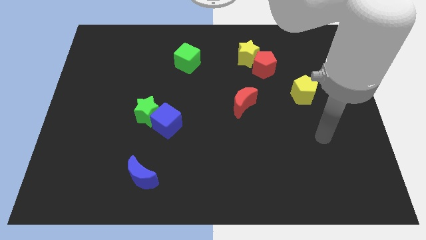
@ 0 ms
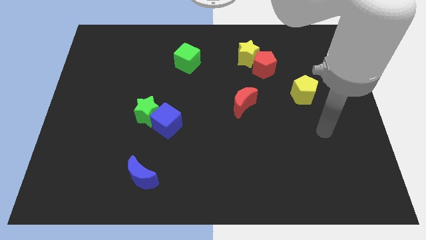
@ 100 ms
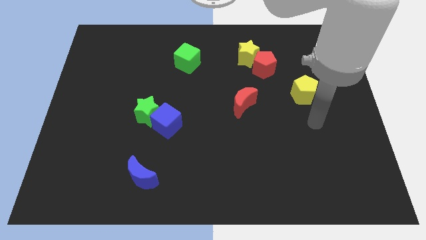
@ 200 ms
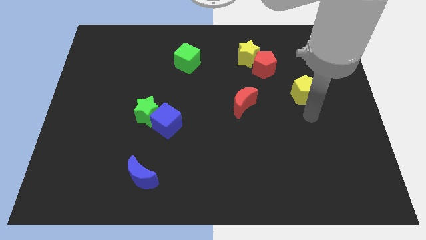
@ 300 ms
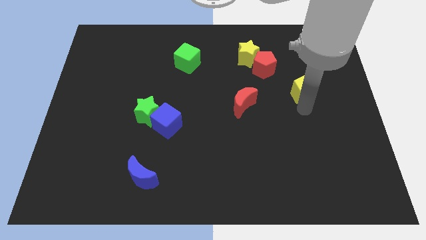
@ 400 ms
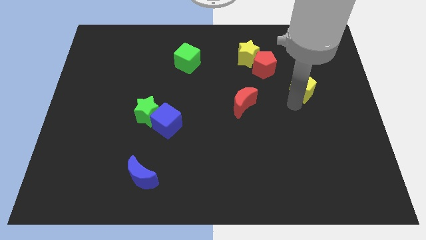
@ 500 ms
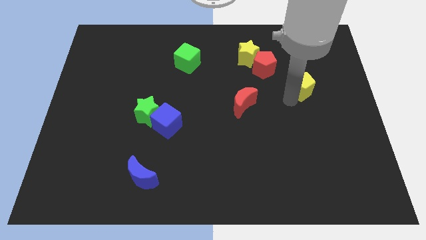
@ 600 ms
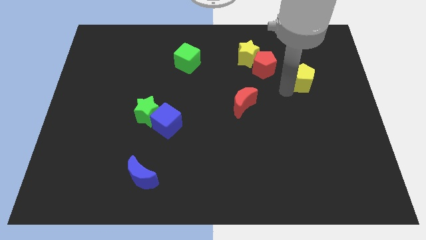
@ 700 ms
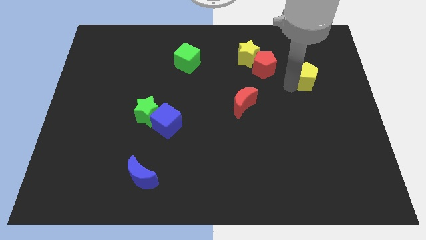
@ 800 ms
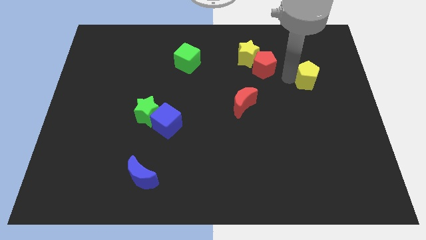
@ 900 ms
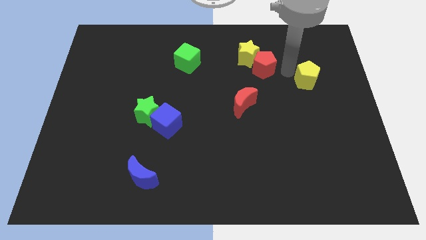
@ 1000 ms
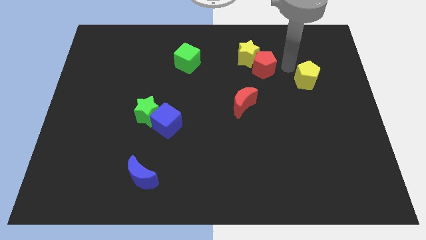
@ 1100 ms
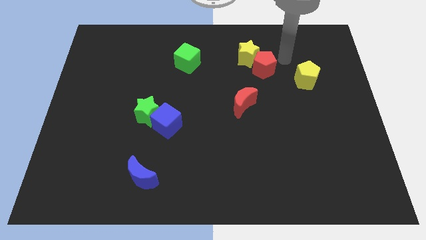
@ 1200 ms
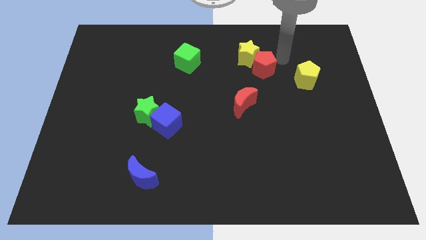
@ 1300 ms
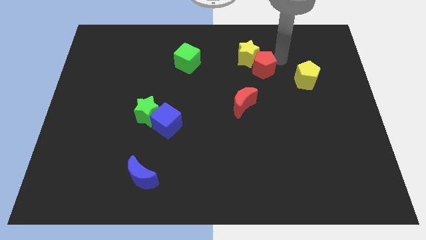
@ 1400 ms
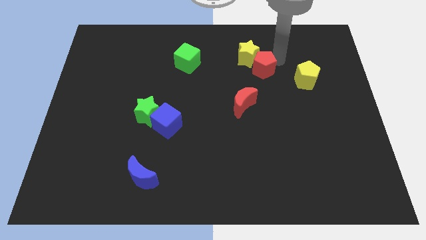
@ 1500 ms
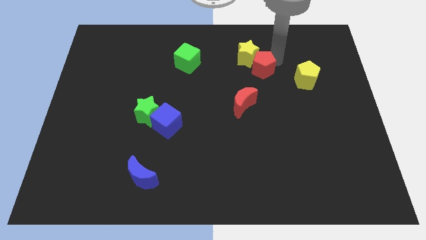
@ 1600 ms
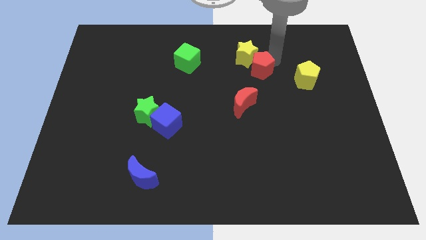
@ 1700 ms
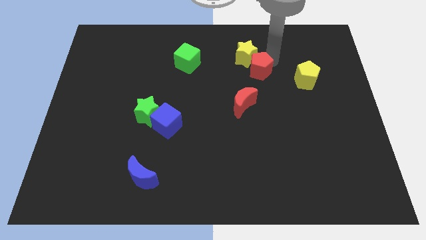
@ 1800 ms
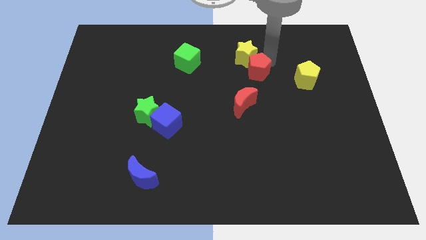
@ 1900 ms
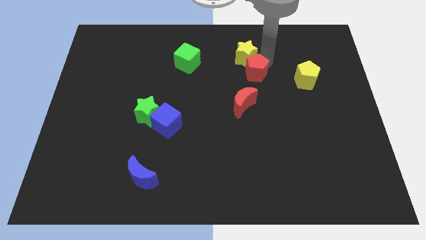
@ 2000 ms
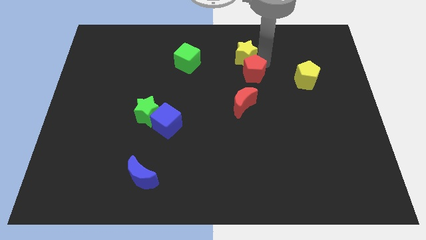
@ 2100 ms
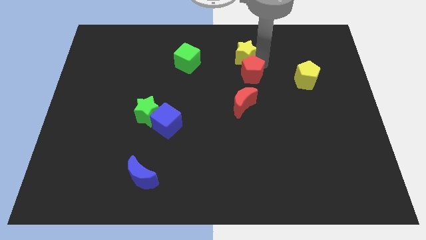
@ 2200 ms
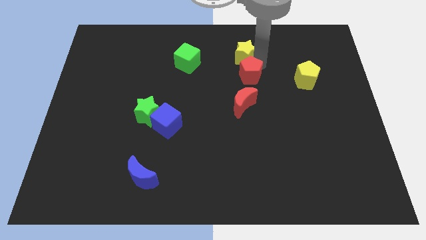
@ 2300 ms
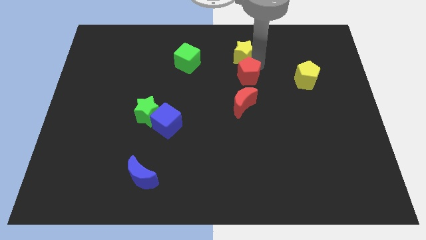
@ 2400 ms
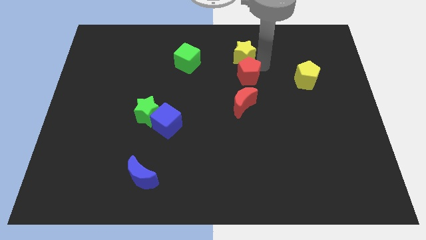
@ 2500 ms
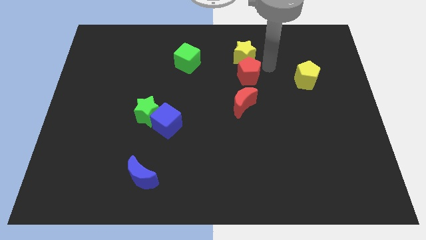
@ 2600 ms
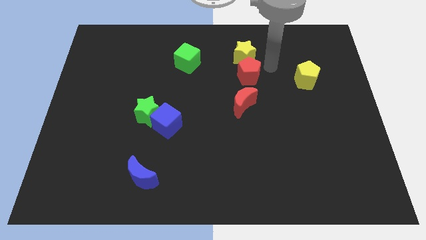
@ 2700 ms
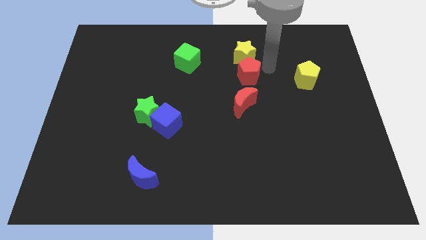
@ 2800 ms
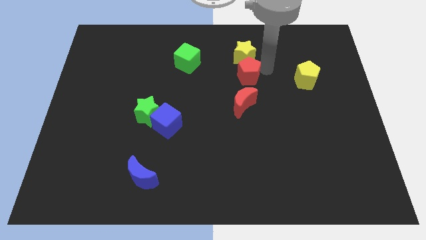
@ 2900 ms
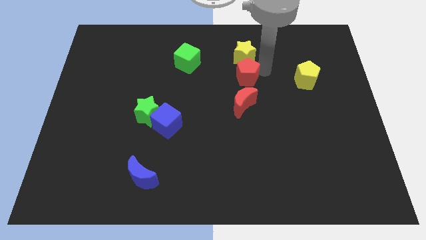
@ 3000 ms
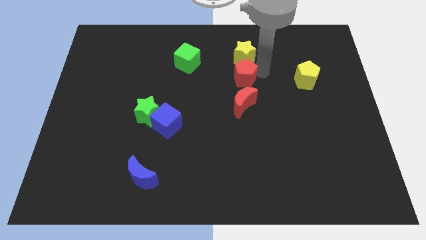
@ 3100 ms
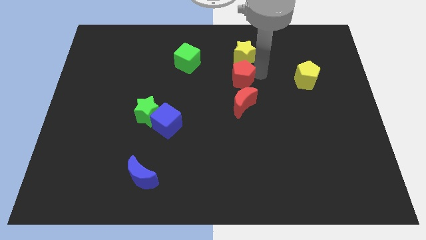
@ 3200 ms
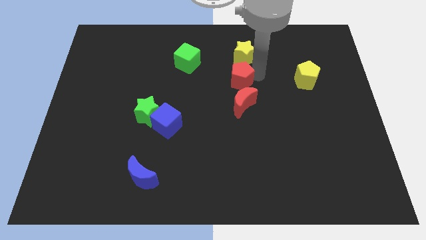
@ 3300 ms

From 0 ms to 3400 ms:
push the red pentagon downwards and to the left a little bit

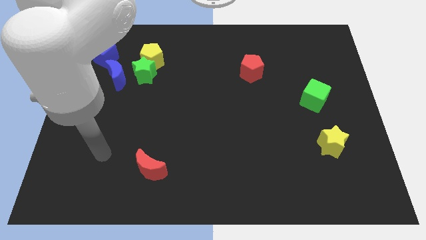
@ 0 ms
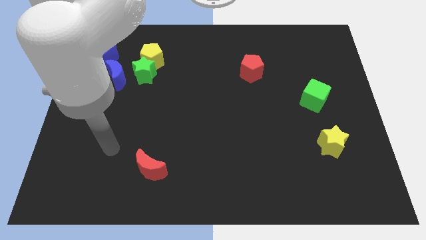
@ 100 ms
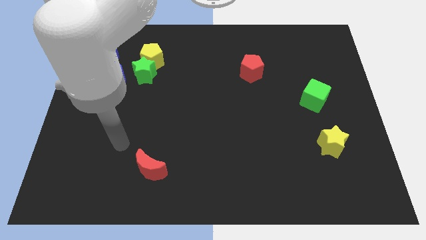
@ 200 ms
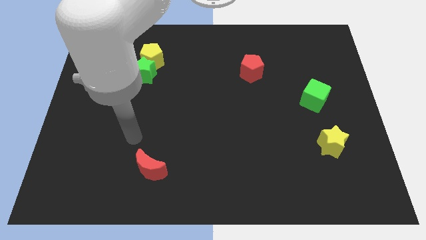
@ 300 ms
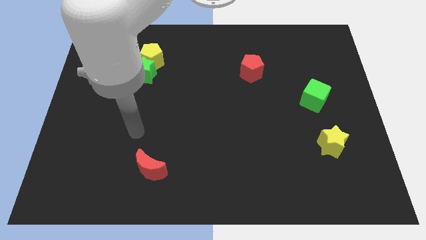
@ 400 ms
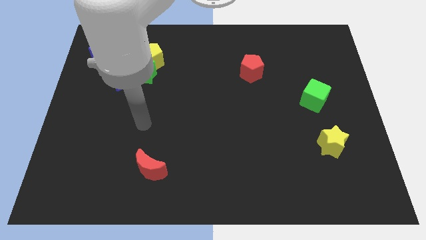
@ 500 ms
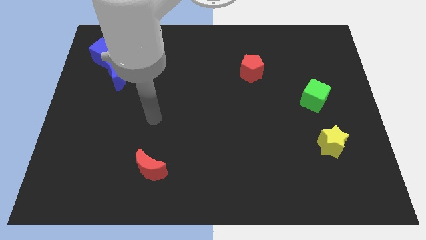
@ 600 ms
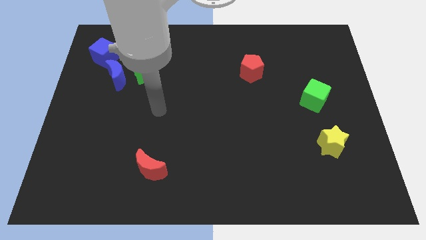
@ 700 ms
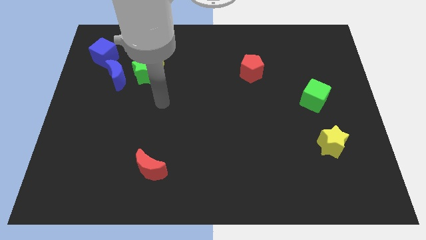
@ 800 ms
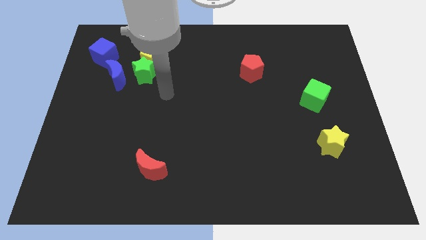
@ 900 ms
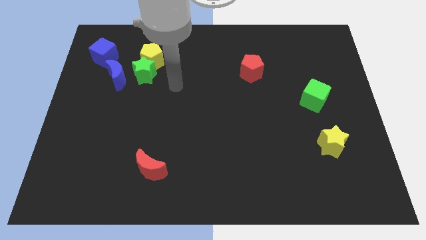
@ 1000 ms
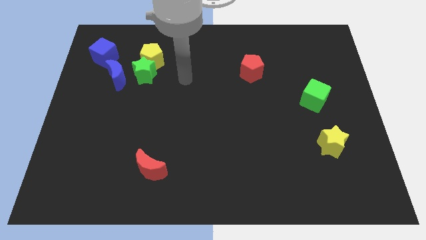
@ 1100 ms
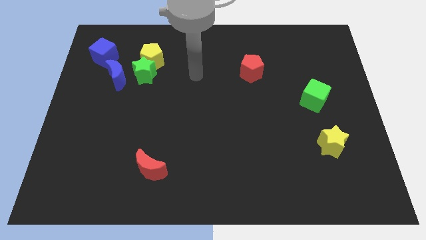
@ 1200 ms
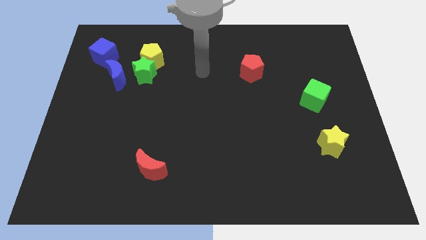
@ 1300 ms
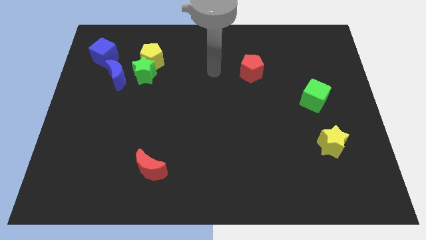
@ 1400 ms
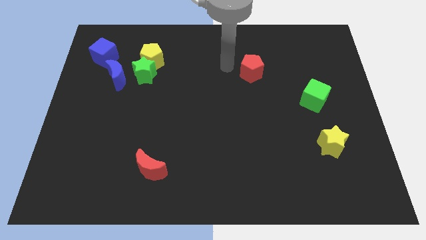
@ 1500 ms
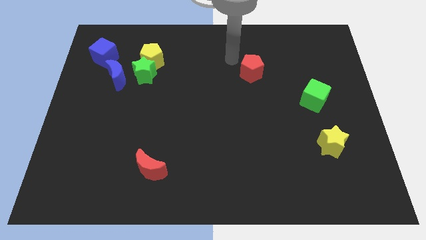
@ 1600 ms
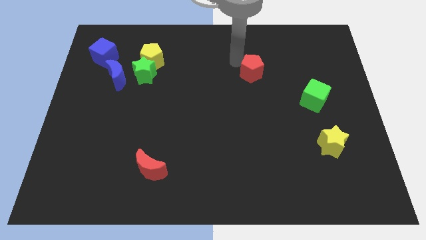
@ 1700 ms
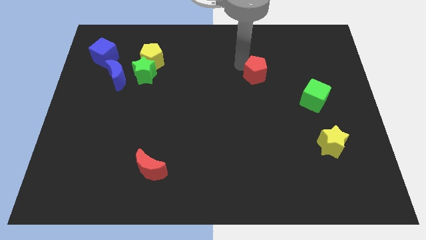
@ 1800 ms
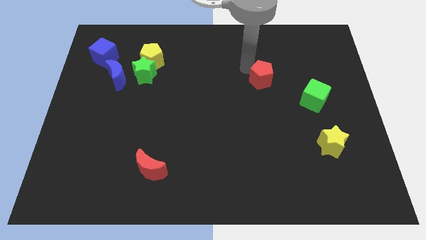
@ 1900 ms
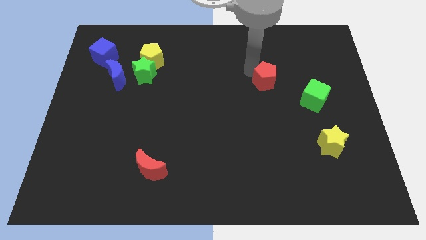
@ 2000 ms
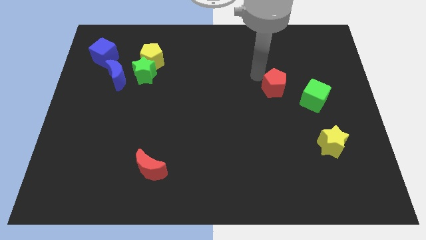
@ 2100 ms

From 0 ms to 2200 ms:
slide the red pentagon down and then to the right a bit

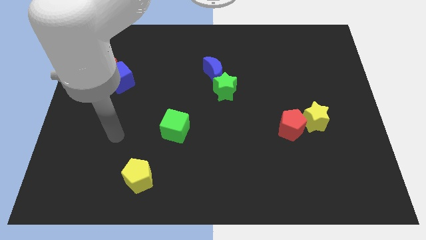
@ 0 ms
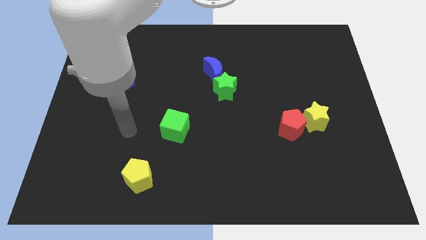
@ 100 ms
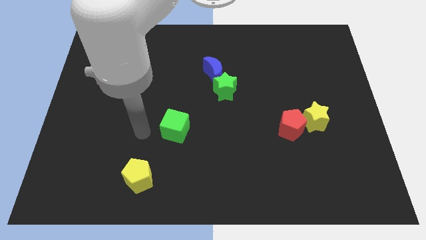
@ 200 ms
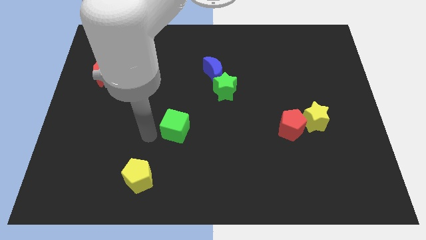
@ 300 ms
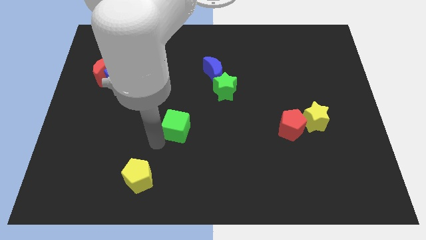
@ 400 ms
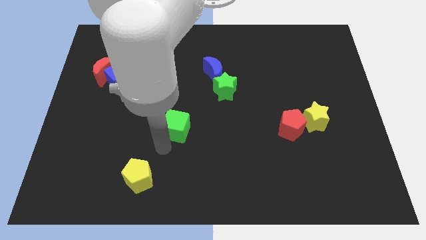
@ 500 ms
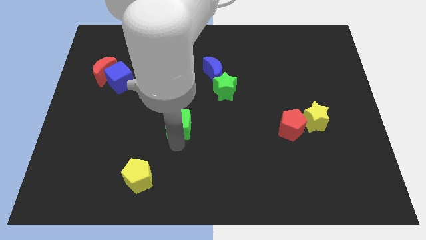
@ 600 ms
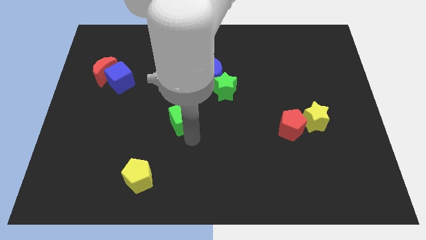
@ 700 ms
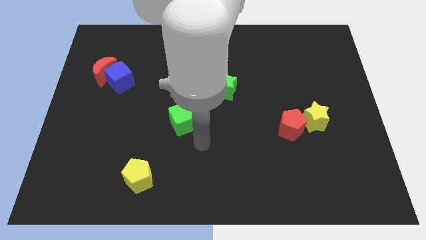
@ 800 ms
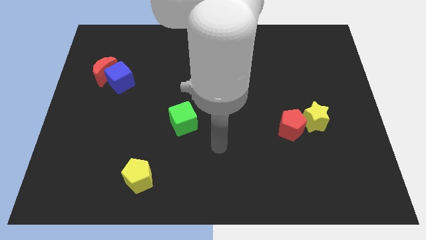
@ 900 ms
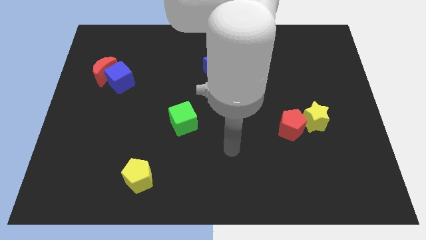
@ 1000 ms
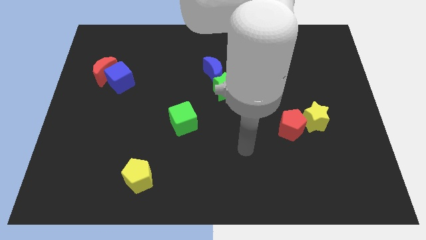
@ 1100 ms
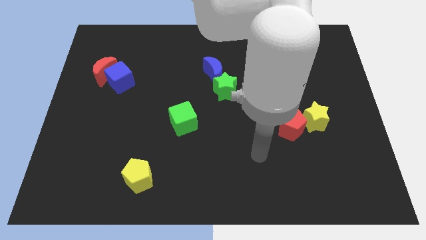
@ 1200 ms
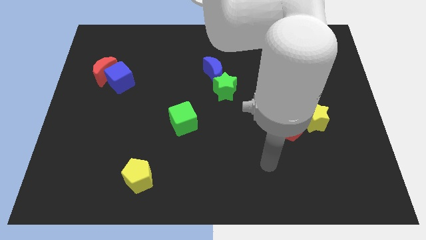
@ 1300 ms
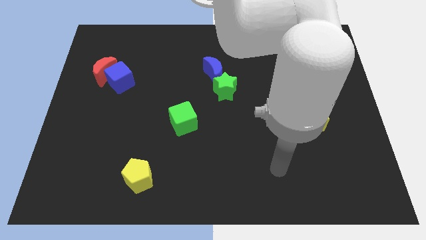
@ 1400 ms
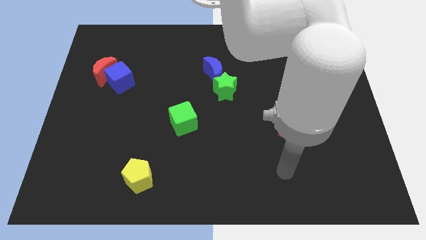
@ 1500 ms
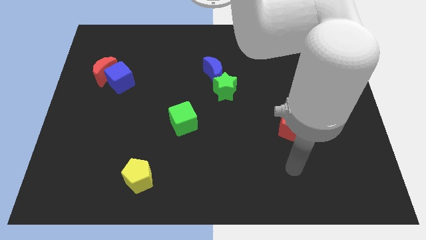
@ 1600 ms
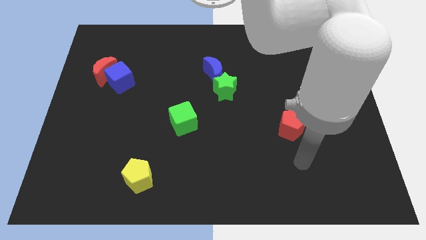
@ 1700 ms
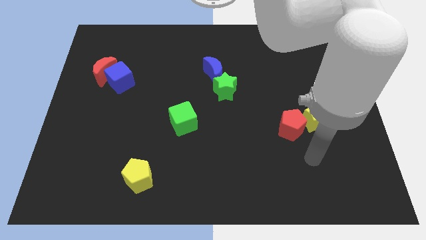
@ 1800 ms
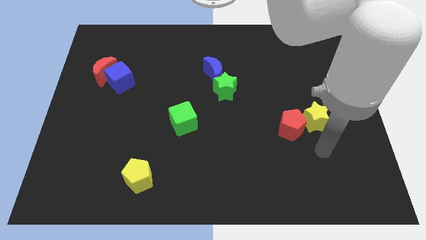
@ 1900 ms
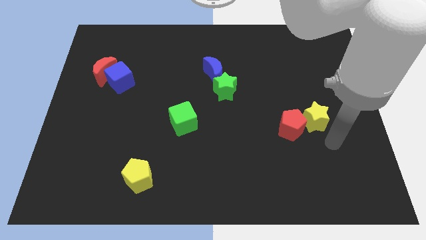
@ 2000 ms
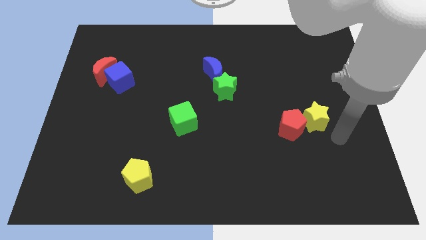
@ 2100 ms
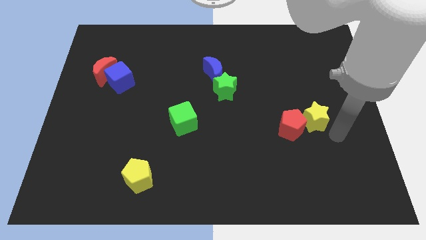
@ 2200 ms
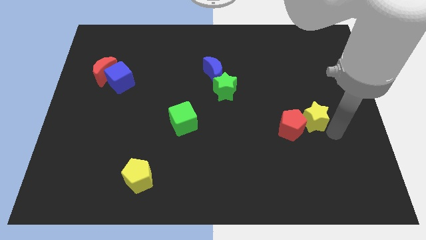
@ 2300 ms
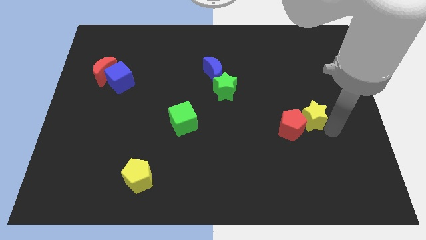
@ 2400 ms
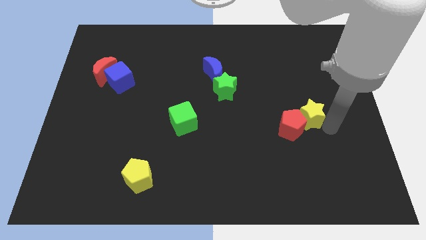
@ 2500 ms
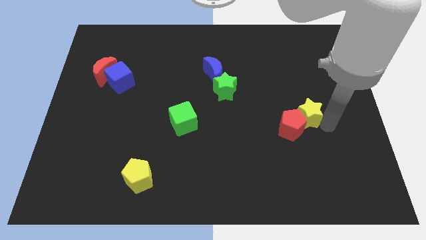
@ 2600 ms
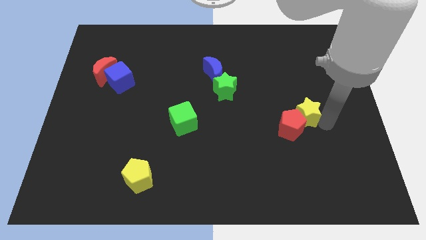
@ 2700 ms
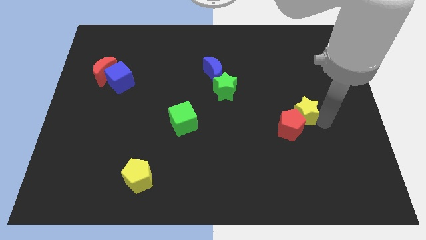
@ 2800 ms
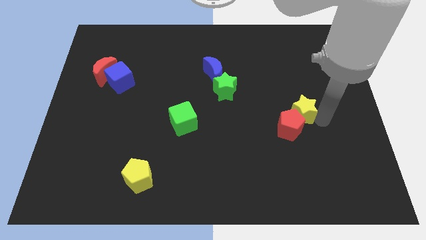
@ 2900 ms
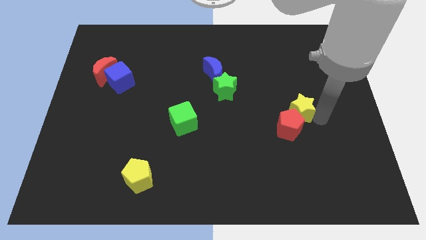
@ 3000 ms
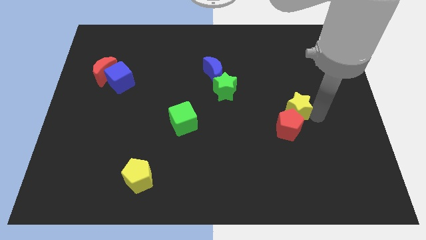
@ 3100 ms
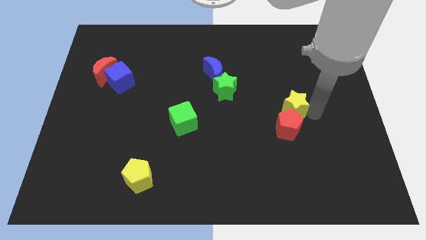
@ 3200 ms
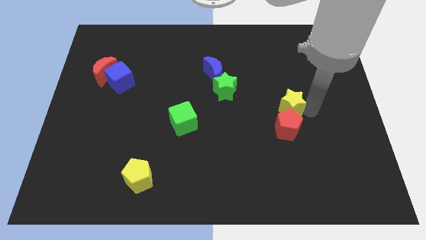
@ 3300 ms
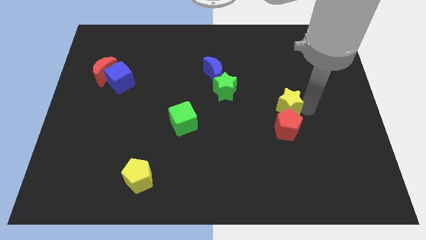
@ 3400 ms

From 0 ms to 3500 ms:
slightly move the yellow star diagonally upwards and to the left
